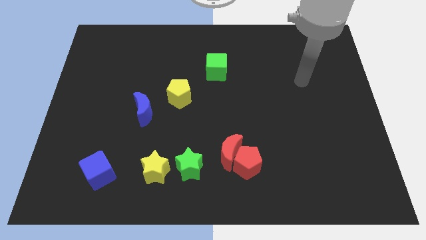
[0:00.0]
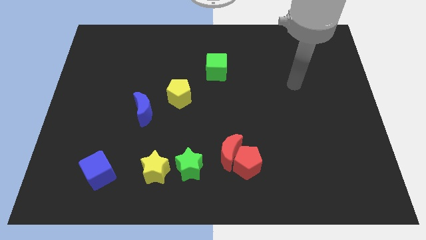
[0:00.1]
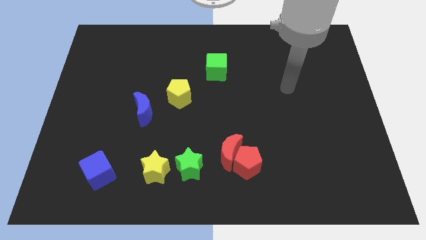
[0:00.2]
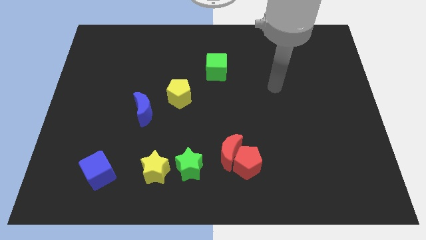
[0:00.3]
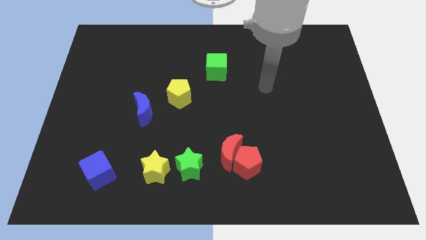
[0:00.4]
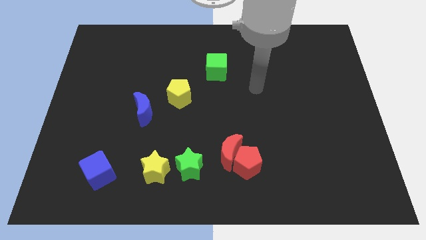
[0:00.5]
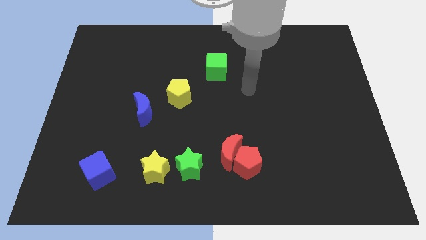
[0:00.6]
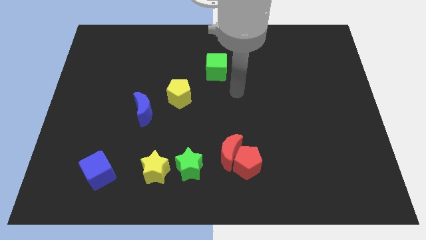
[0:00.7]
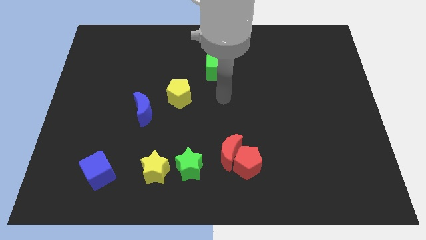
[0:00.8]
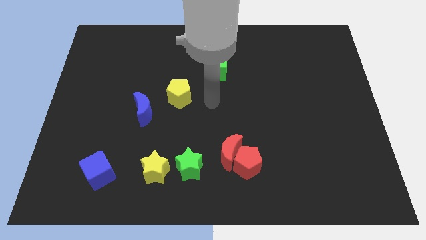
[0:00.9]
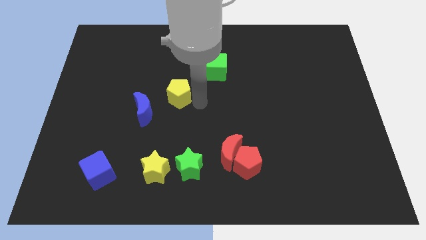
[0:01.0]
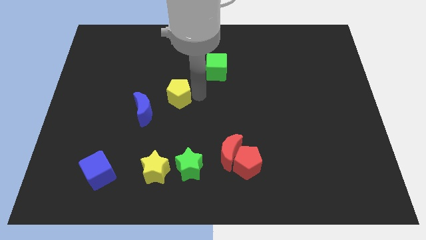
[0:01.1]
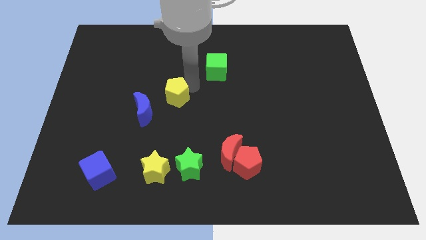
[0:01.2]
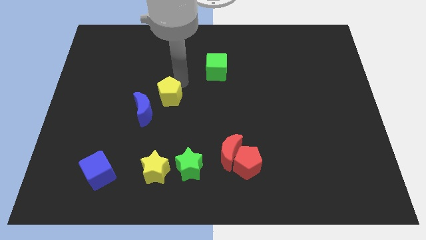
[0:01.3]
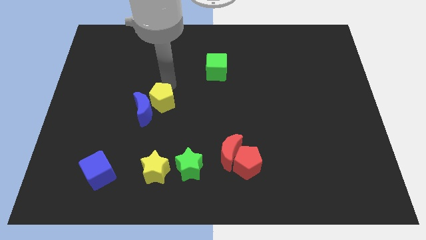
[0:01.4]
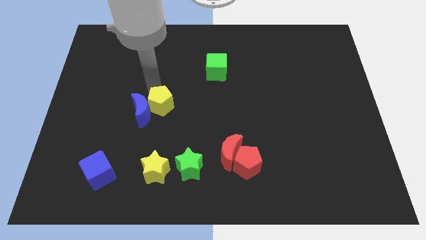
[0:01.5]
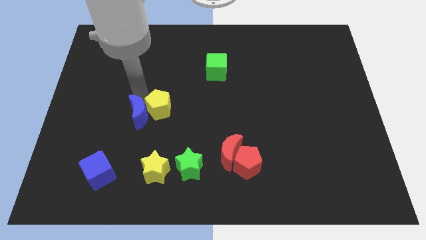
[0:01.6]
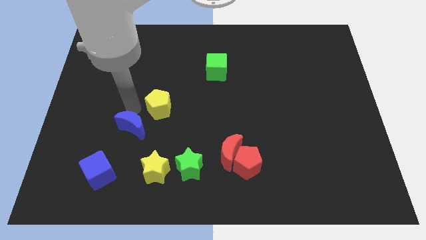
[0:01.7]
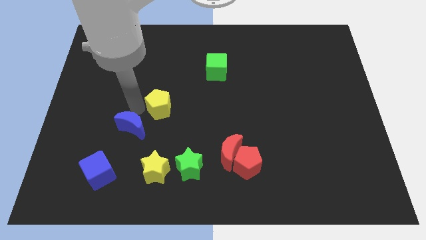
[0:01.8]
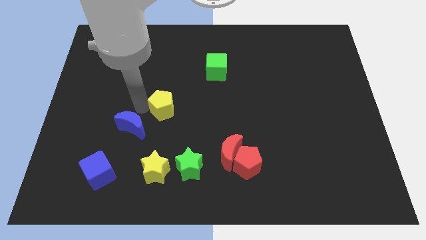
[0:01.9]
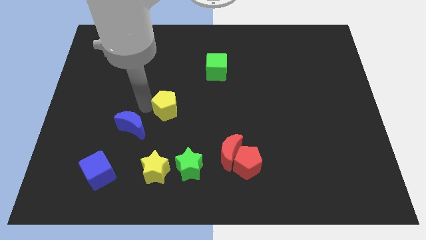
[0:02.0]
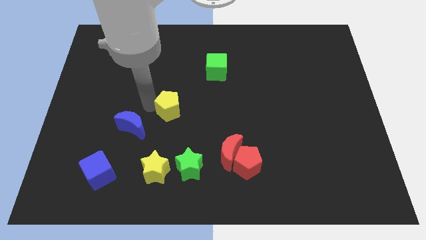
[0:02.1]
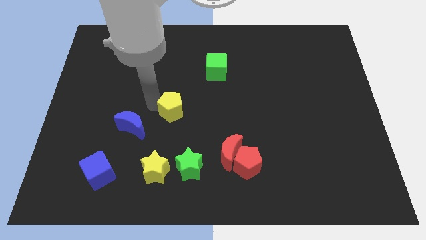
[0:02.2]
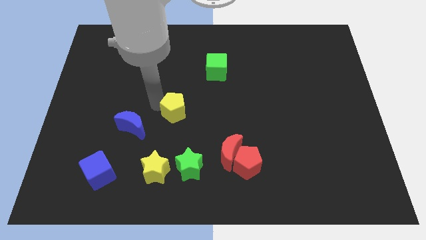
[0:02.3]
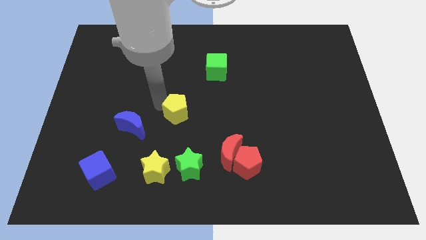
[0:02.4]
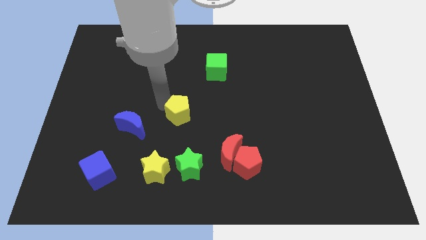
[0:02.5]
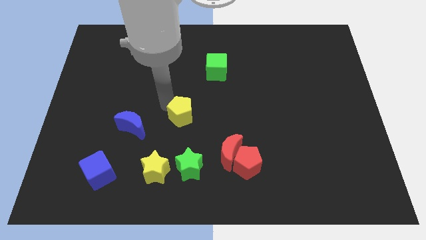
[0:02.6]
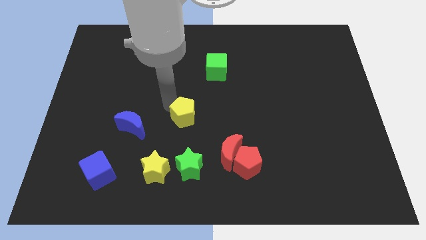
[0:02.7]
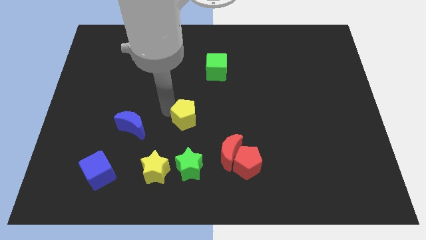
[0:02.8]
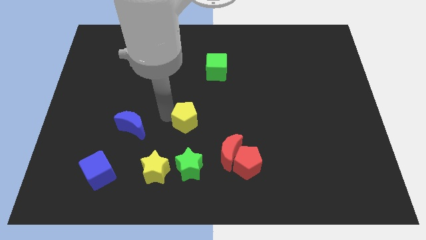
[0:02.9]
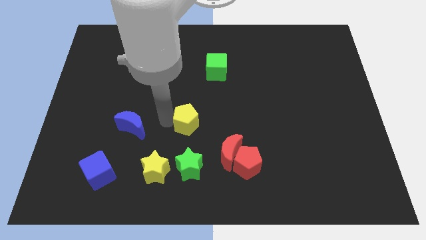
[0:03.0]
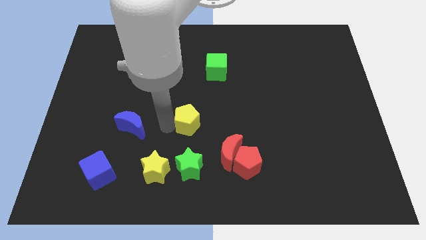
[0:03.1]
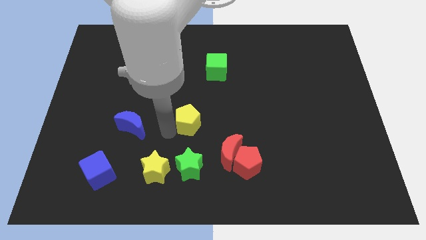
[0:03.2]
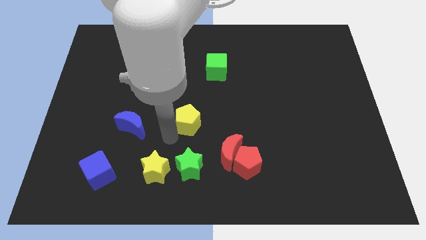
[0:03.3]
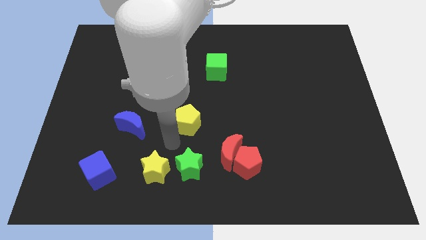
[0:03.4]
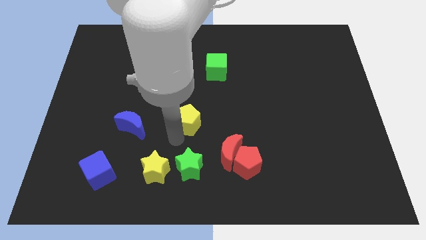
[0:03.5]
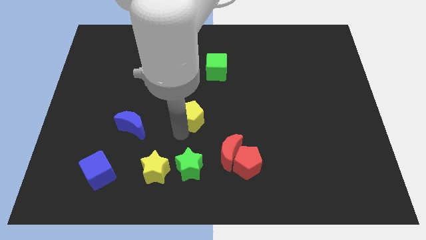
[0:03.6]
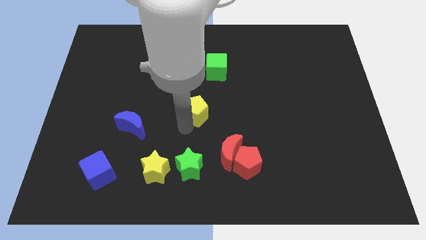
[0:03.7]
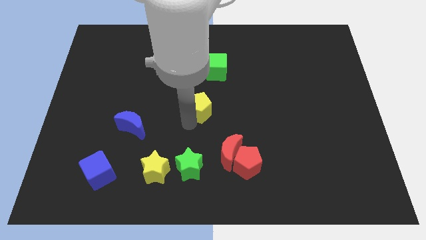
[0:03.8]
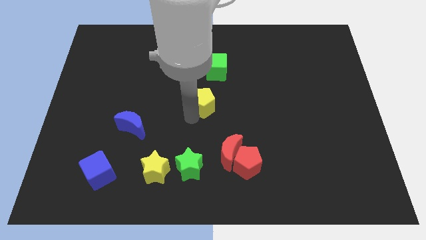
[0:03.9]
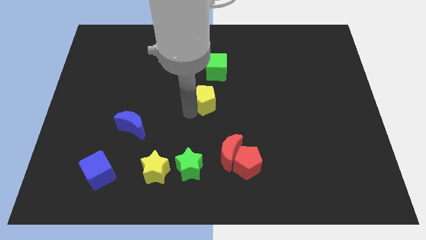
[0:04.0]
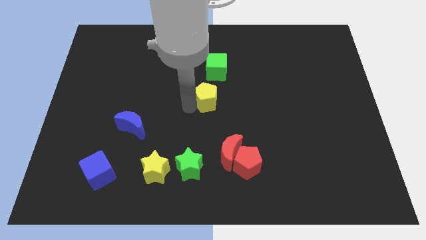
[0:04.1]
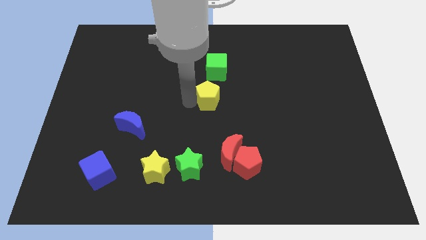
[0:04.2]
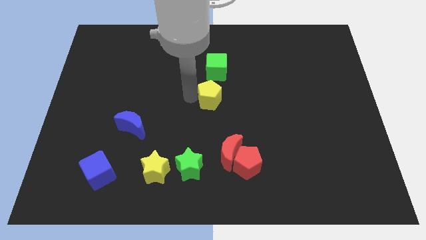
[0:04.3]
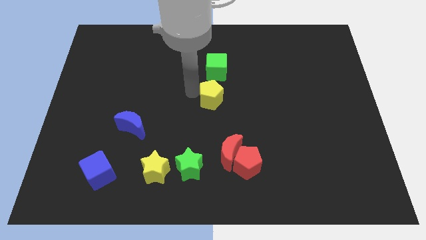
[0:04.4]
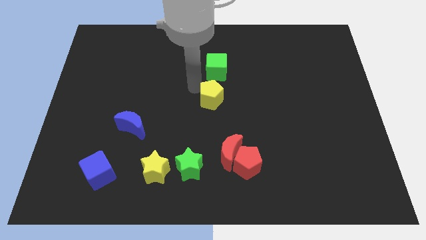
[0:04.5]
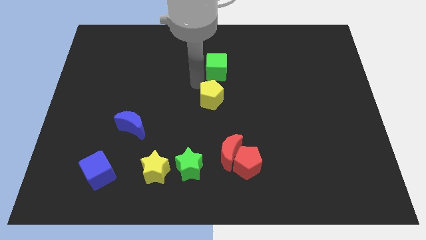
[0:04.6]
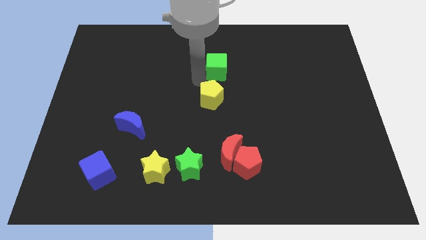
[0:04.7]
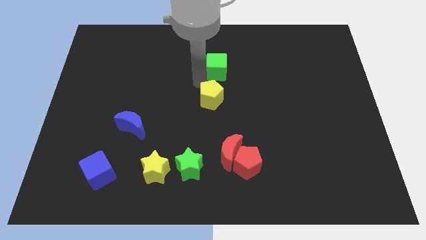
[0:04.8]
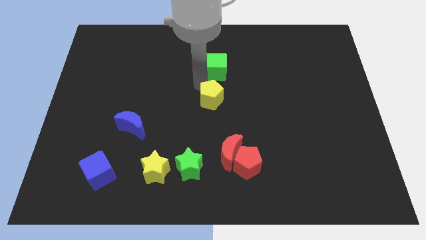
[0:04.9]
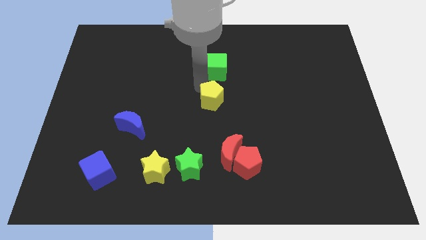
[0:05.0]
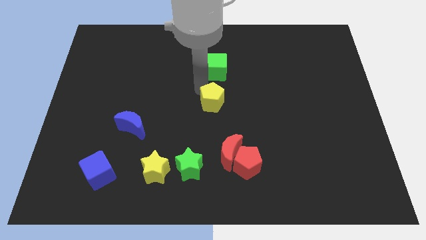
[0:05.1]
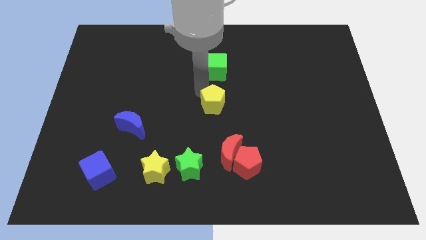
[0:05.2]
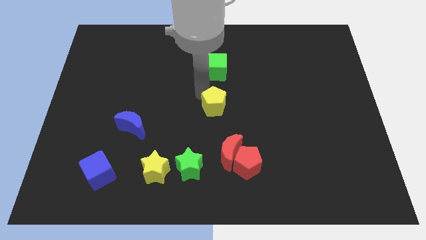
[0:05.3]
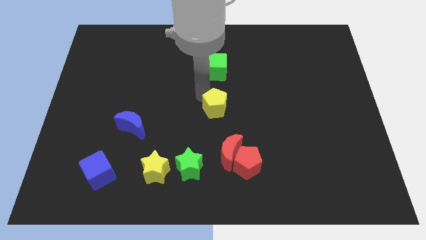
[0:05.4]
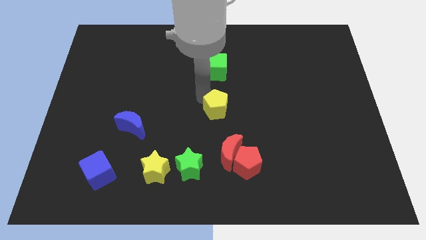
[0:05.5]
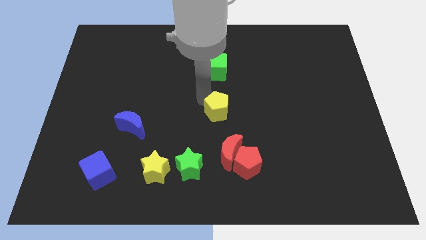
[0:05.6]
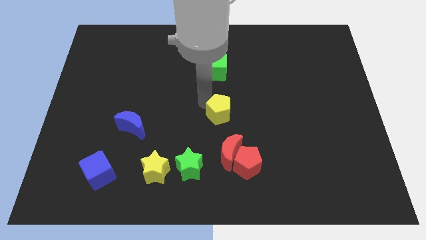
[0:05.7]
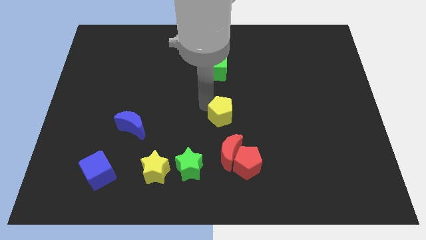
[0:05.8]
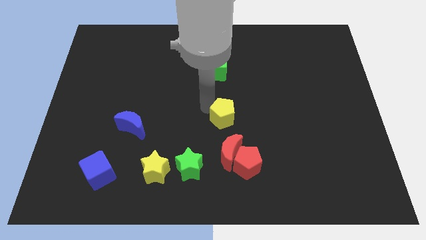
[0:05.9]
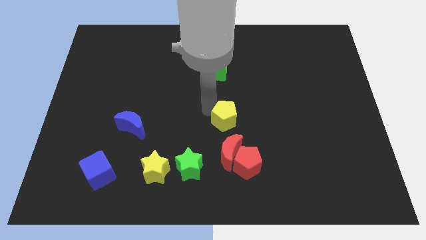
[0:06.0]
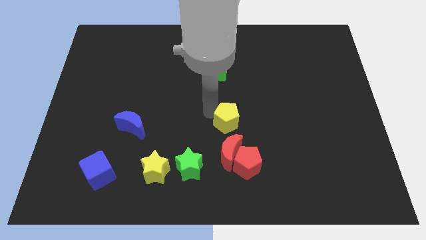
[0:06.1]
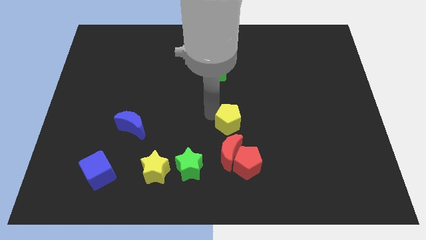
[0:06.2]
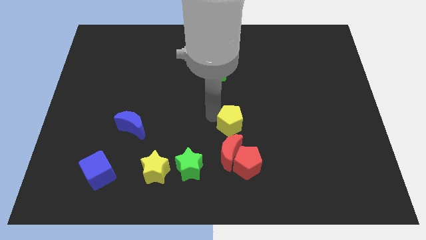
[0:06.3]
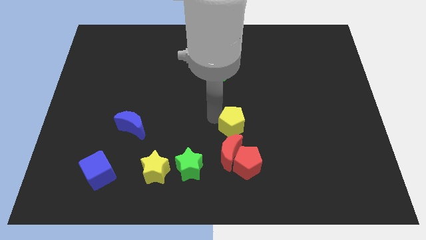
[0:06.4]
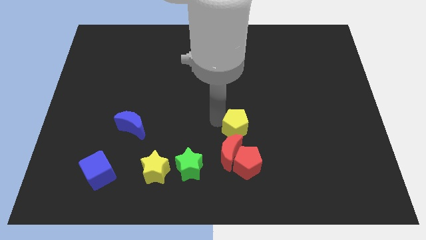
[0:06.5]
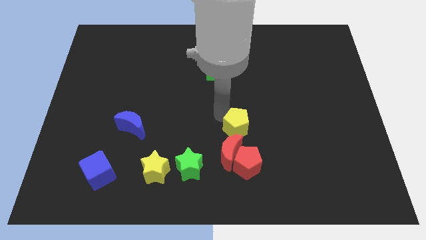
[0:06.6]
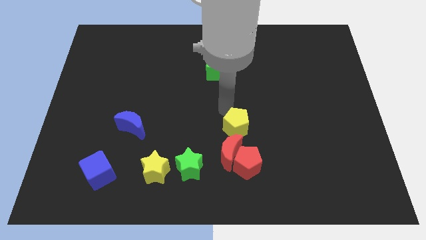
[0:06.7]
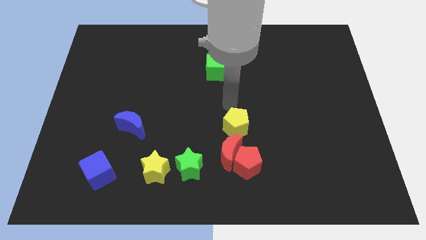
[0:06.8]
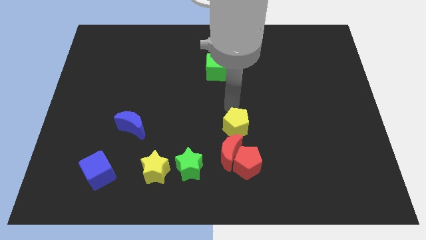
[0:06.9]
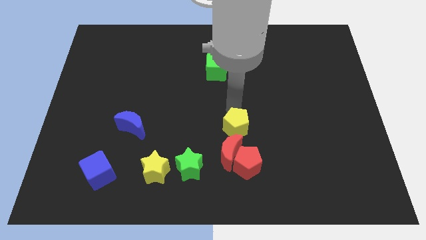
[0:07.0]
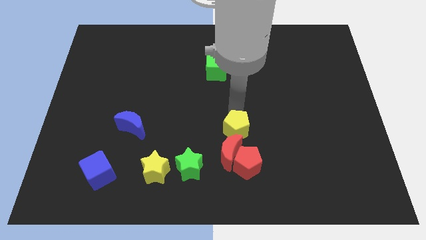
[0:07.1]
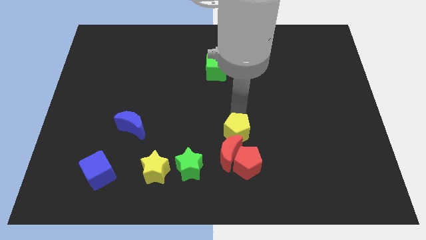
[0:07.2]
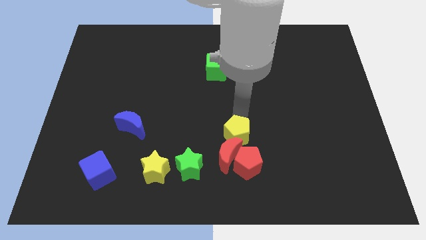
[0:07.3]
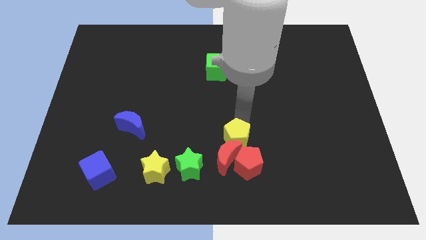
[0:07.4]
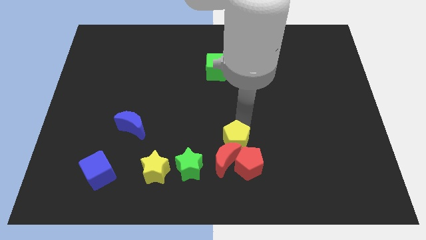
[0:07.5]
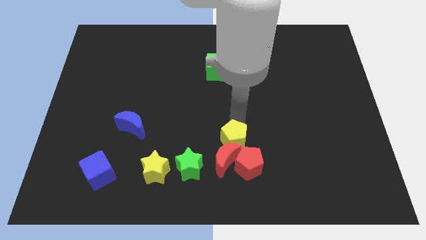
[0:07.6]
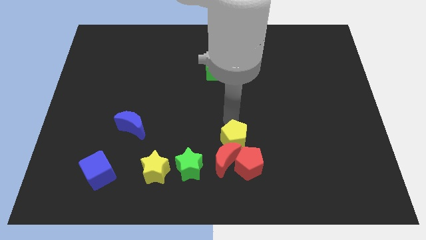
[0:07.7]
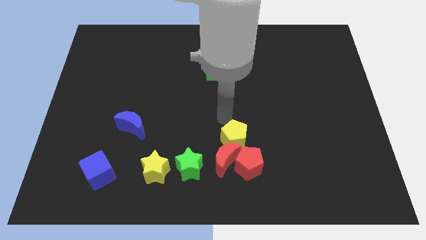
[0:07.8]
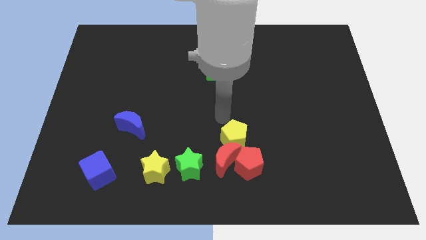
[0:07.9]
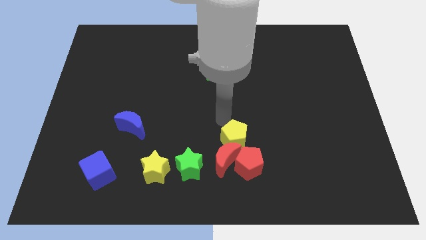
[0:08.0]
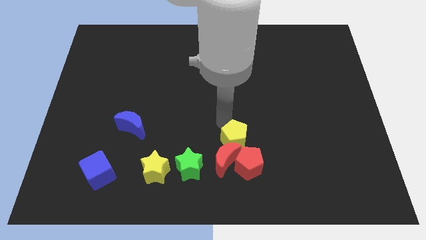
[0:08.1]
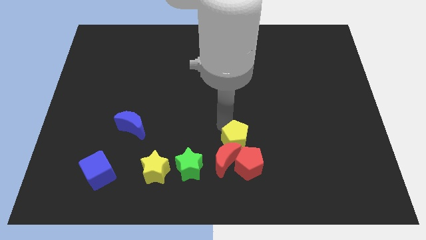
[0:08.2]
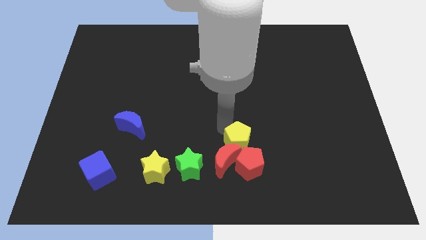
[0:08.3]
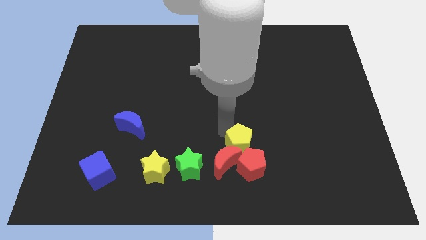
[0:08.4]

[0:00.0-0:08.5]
push the yellow pentagon next to the red pentagon
